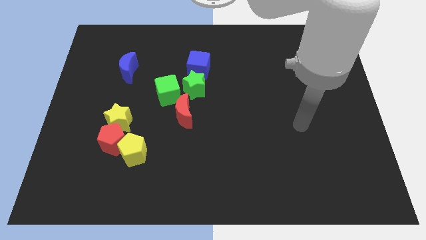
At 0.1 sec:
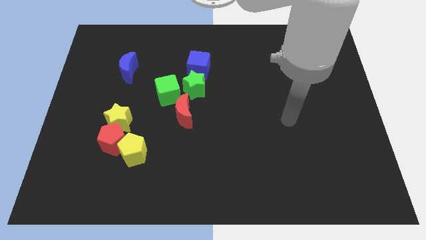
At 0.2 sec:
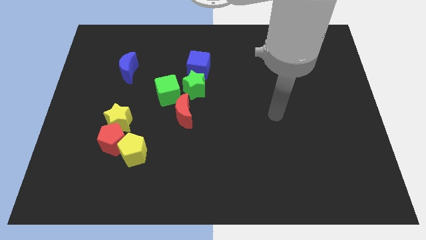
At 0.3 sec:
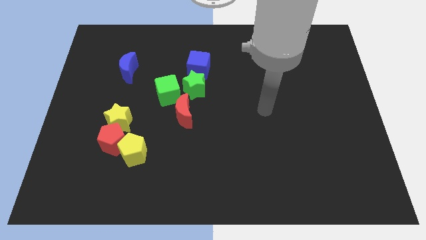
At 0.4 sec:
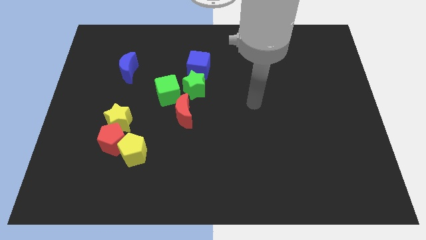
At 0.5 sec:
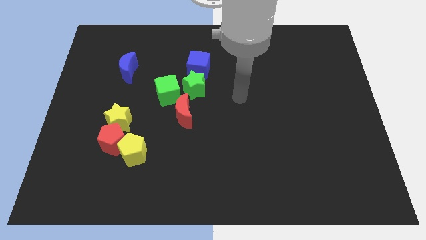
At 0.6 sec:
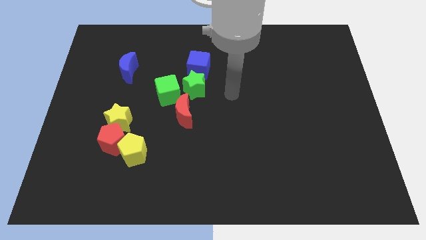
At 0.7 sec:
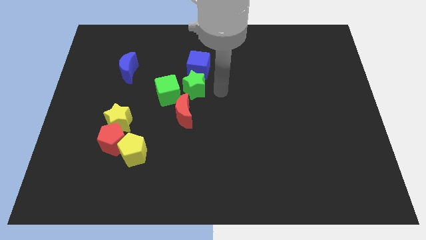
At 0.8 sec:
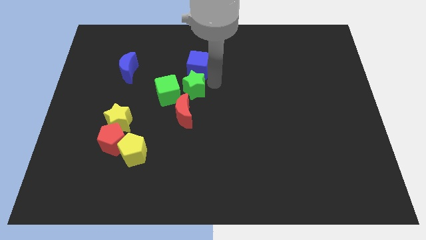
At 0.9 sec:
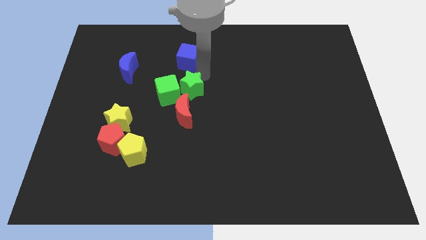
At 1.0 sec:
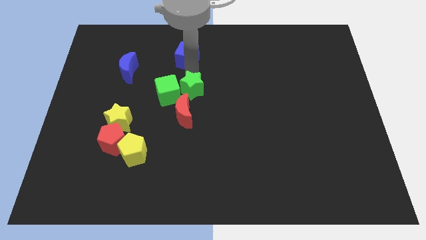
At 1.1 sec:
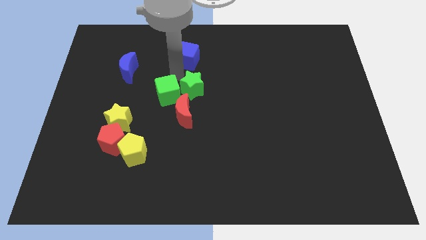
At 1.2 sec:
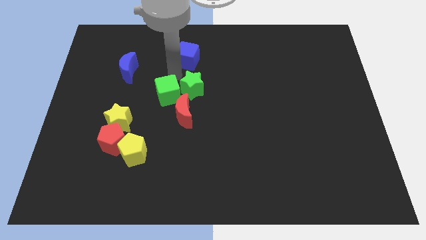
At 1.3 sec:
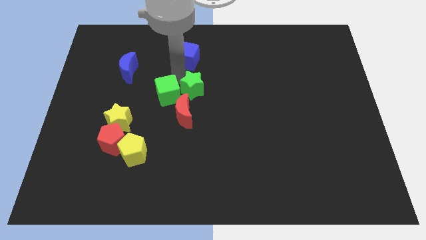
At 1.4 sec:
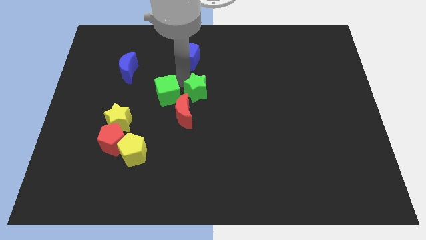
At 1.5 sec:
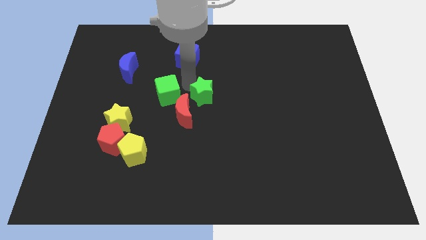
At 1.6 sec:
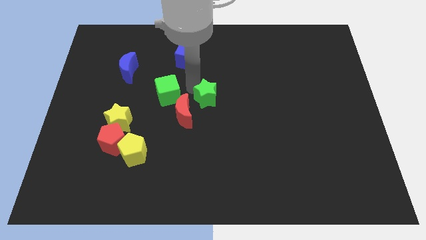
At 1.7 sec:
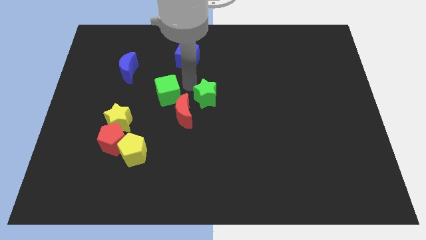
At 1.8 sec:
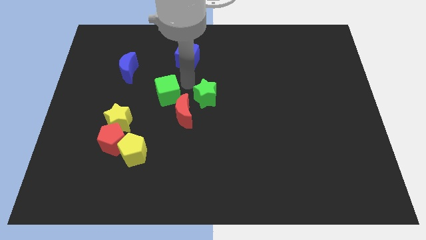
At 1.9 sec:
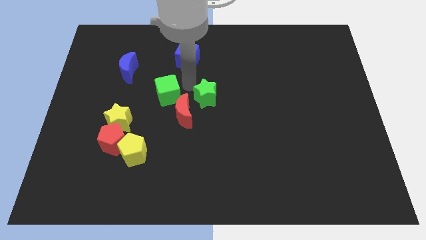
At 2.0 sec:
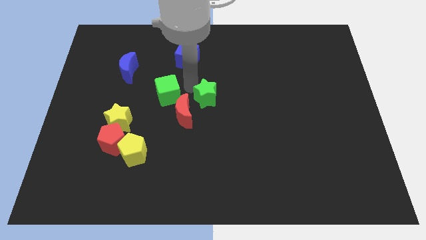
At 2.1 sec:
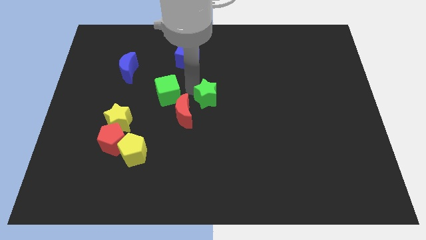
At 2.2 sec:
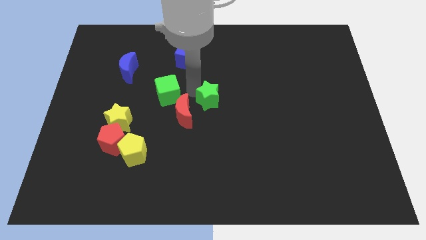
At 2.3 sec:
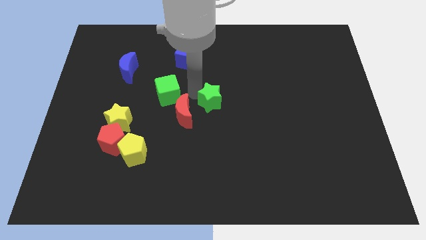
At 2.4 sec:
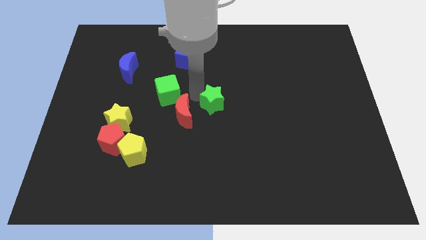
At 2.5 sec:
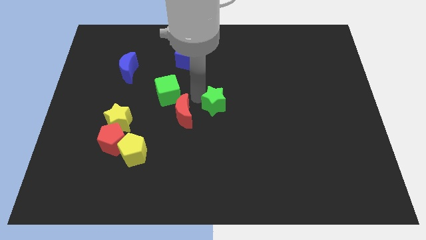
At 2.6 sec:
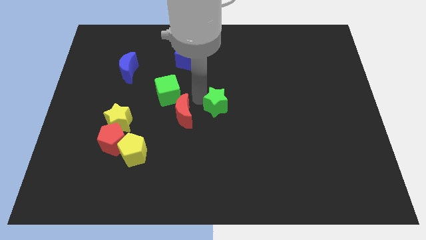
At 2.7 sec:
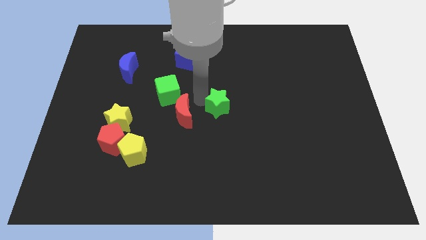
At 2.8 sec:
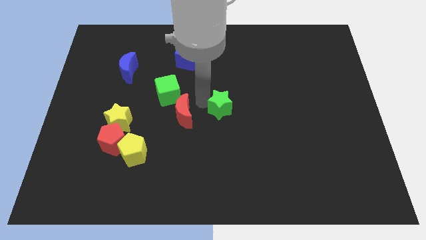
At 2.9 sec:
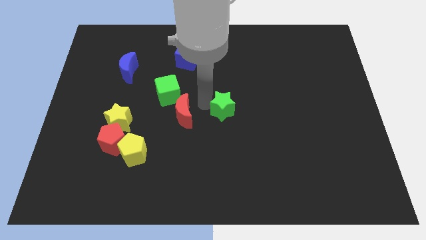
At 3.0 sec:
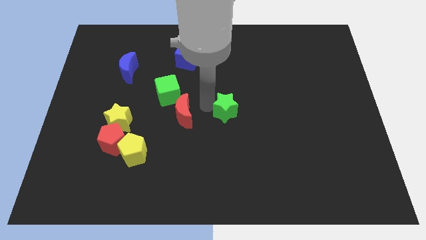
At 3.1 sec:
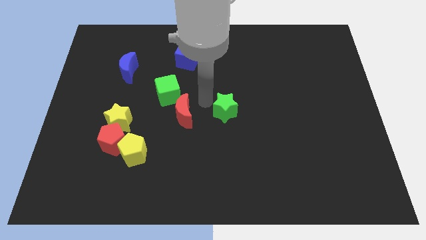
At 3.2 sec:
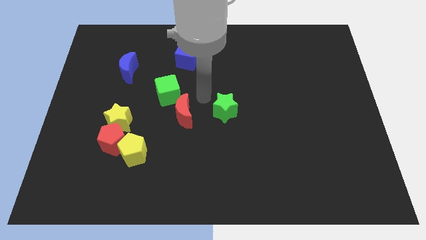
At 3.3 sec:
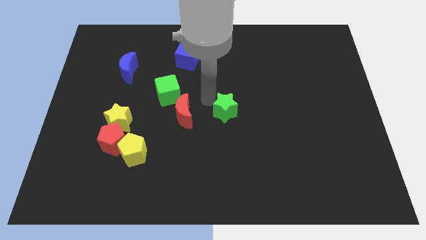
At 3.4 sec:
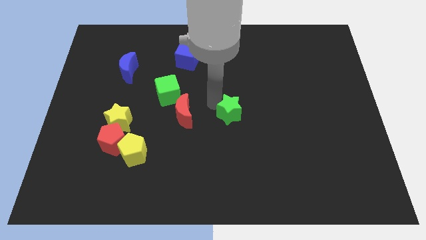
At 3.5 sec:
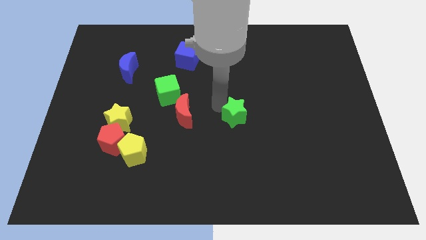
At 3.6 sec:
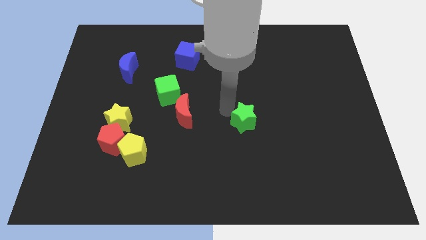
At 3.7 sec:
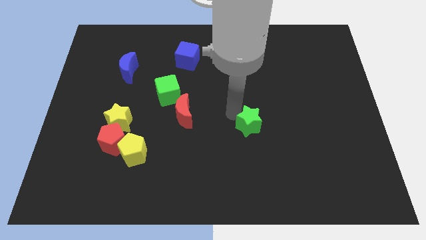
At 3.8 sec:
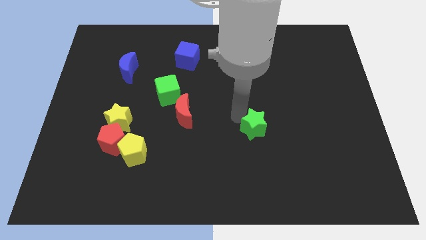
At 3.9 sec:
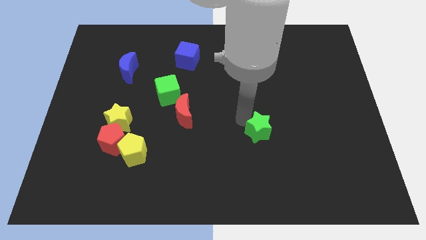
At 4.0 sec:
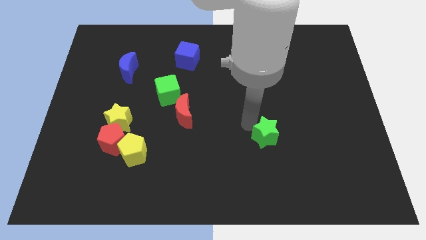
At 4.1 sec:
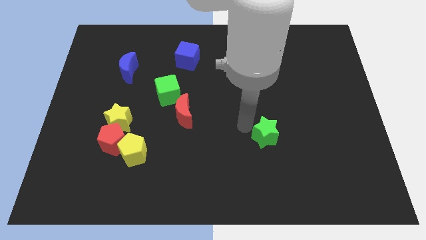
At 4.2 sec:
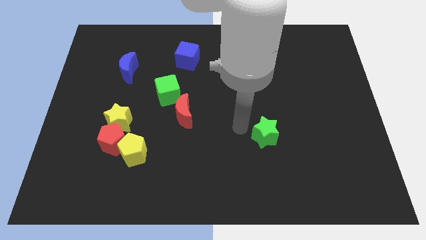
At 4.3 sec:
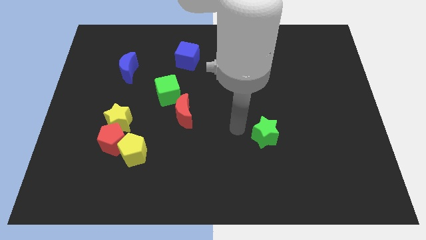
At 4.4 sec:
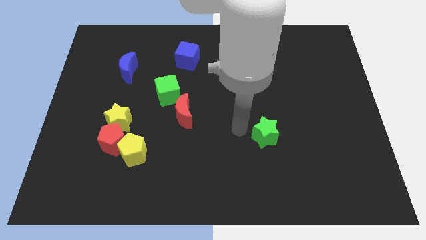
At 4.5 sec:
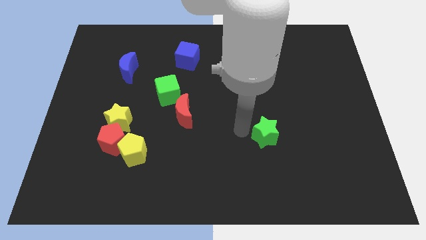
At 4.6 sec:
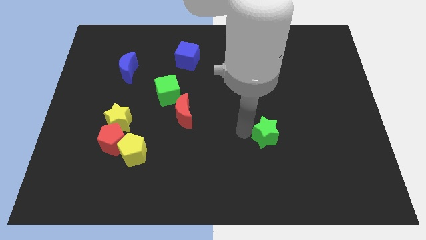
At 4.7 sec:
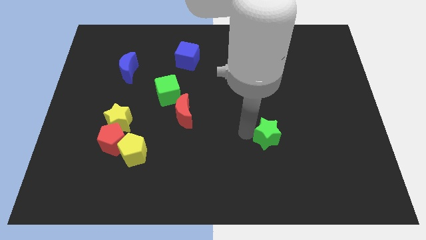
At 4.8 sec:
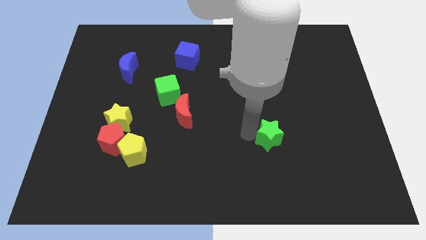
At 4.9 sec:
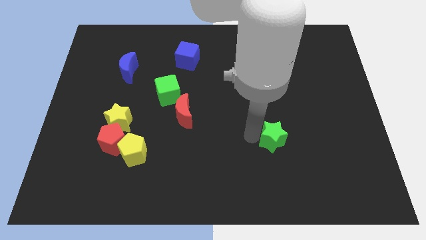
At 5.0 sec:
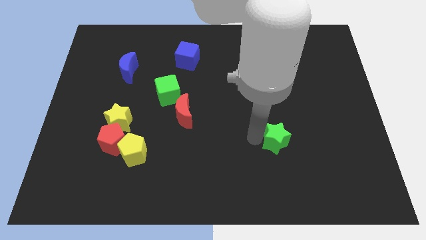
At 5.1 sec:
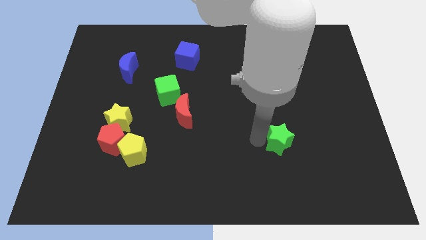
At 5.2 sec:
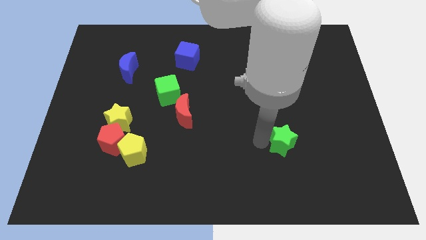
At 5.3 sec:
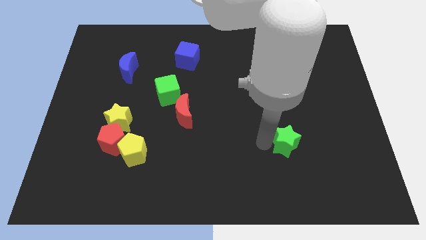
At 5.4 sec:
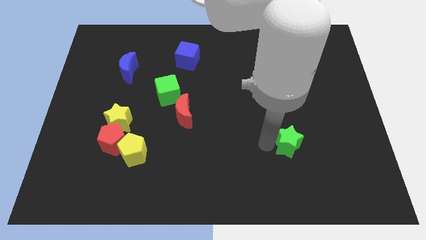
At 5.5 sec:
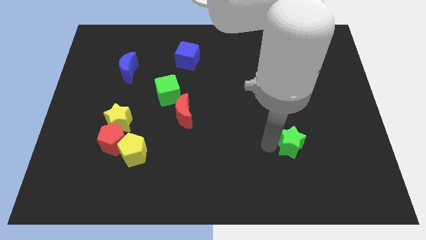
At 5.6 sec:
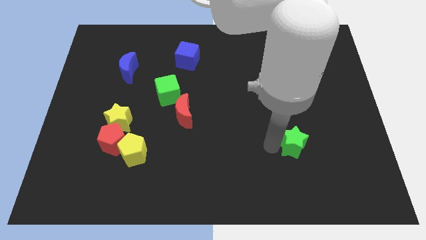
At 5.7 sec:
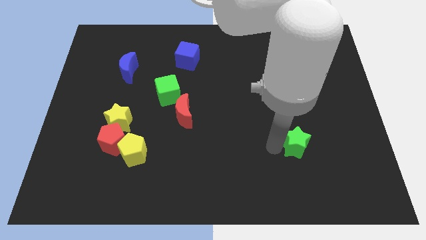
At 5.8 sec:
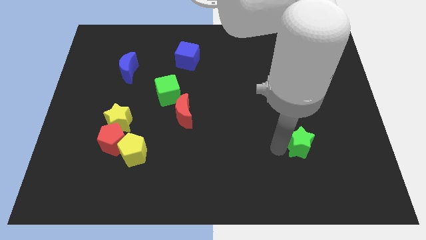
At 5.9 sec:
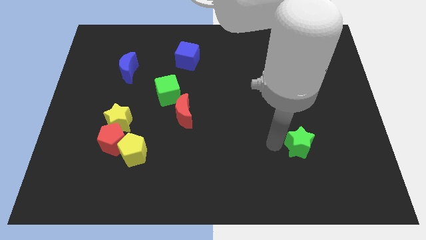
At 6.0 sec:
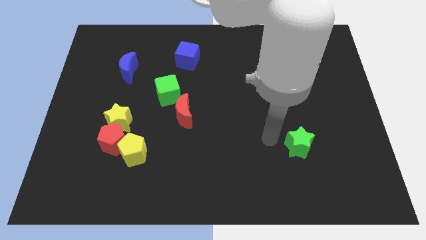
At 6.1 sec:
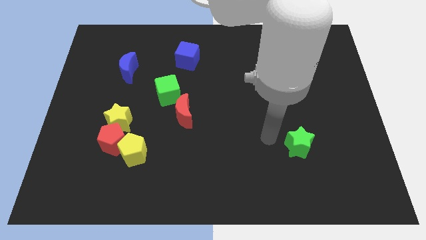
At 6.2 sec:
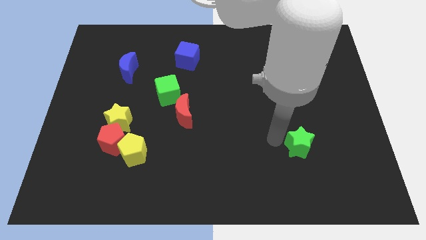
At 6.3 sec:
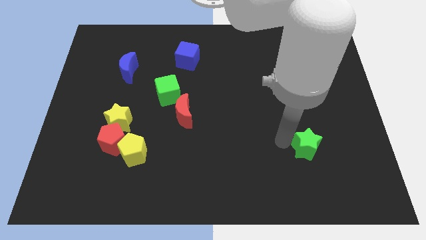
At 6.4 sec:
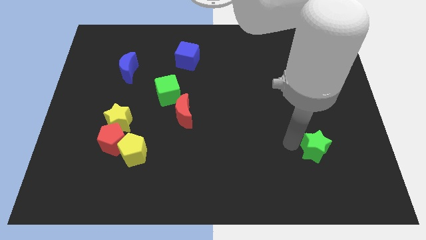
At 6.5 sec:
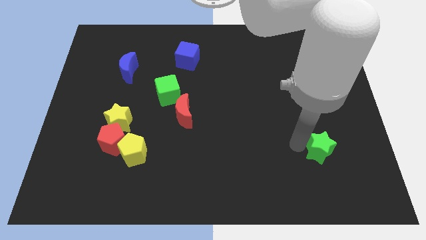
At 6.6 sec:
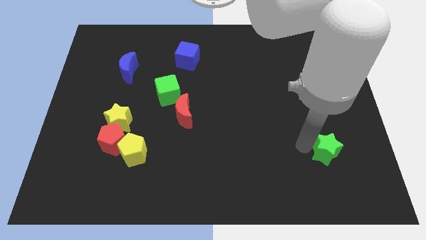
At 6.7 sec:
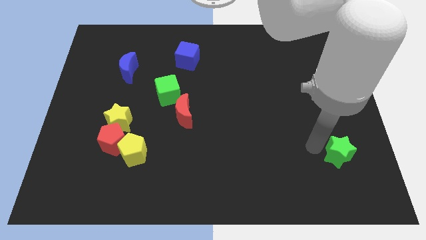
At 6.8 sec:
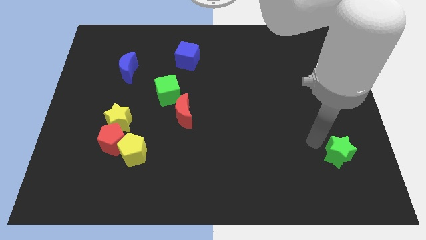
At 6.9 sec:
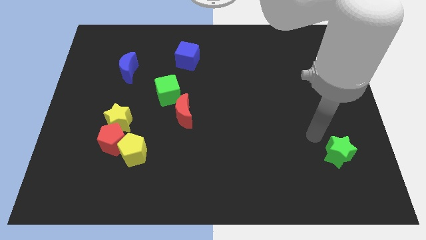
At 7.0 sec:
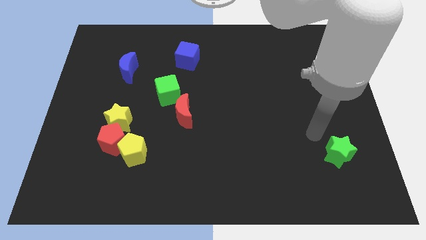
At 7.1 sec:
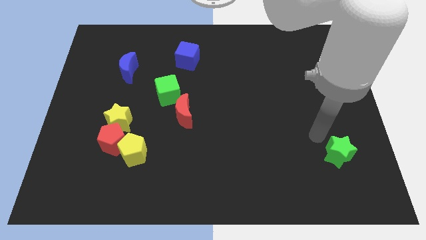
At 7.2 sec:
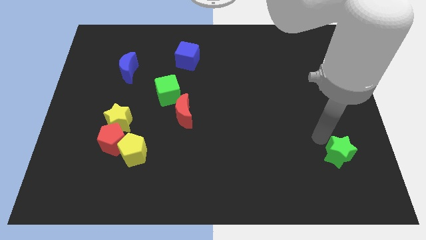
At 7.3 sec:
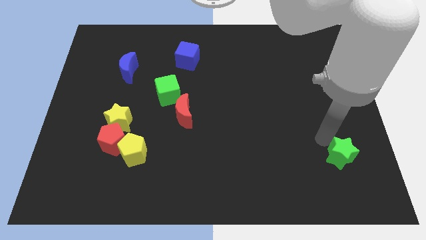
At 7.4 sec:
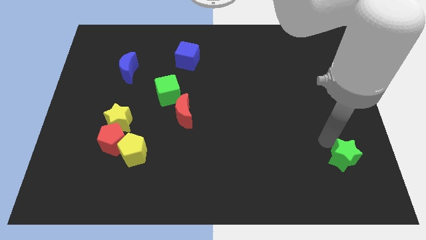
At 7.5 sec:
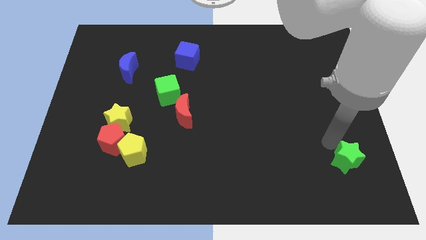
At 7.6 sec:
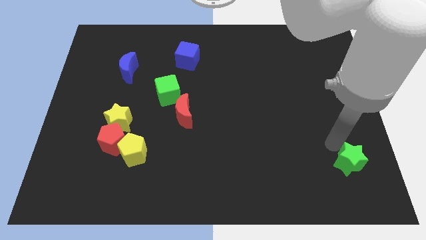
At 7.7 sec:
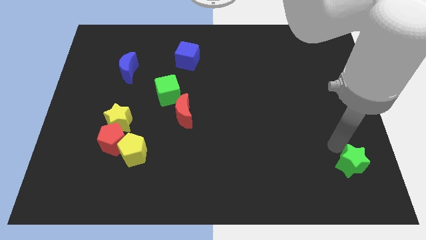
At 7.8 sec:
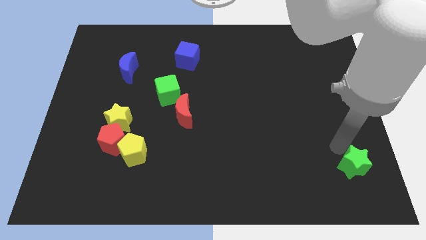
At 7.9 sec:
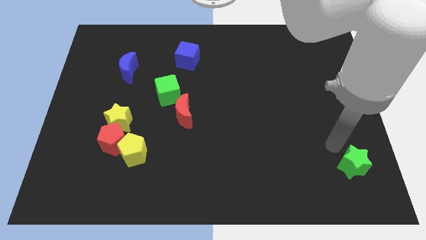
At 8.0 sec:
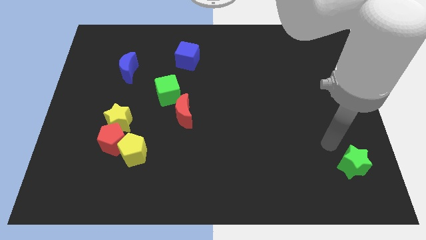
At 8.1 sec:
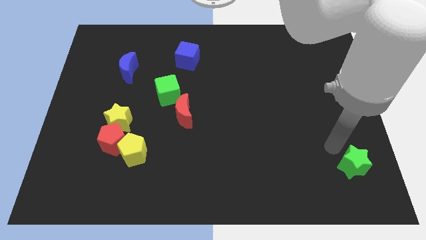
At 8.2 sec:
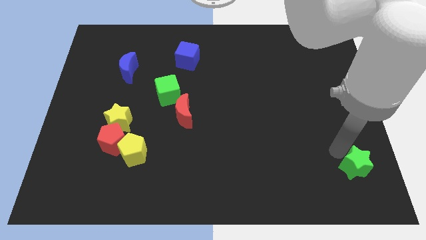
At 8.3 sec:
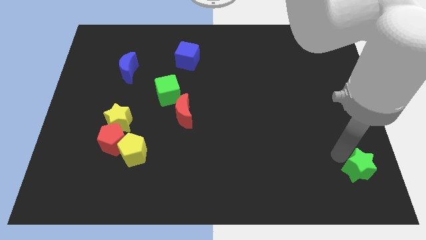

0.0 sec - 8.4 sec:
put the green star to the bottom right
